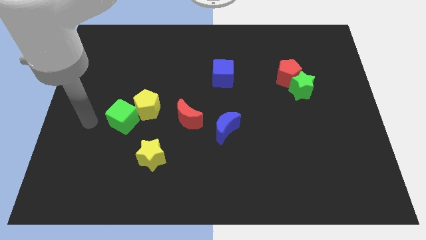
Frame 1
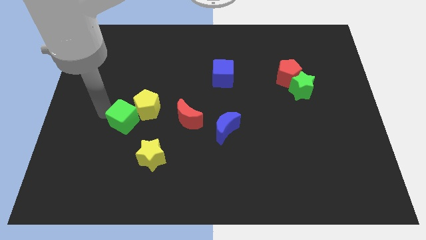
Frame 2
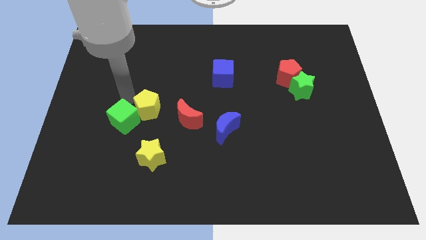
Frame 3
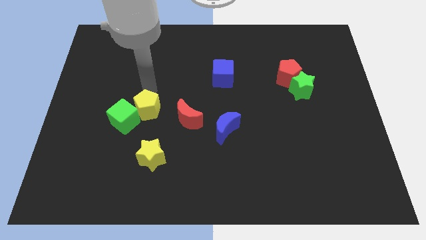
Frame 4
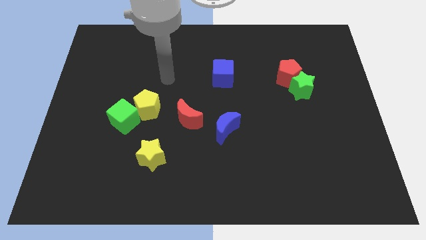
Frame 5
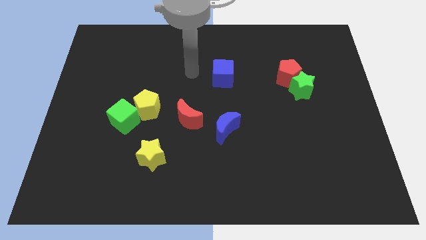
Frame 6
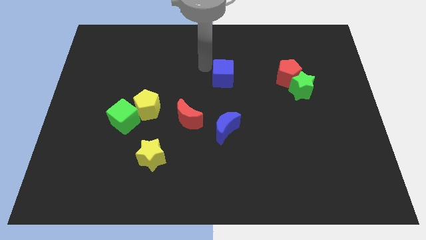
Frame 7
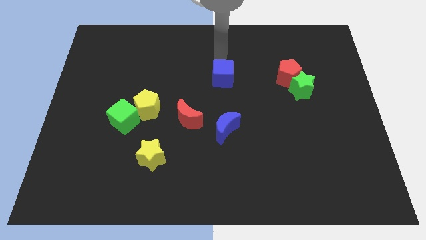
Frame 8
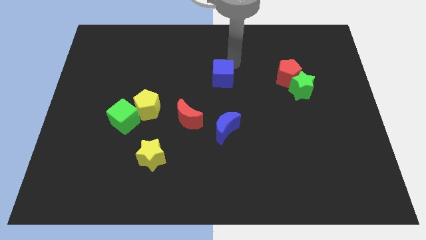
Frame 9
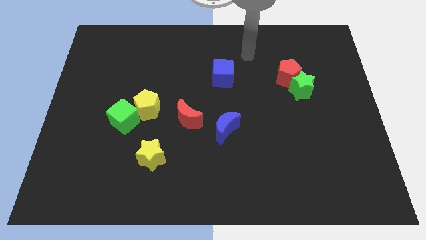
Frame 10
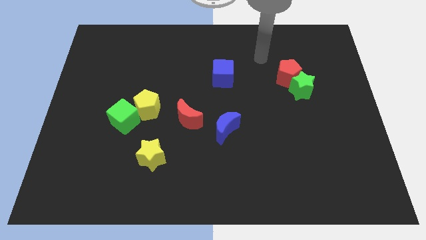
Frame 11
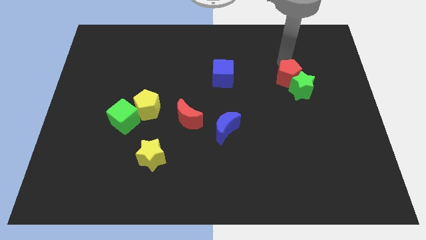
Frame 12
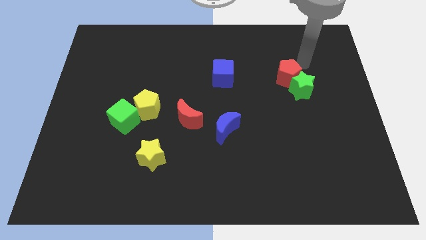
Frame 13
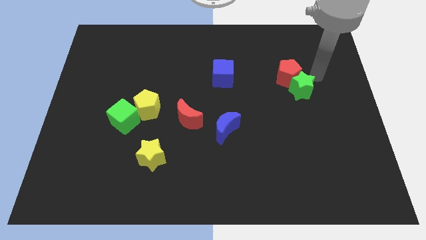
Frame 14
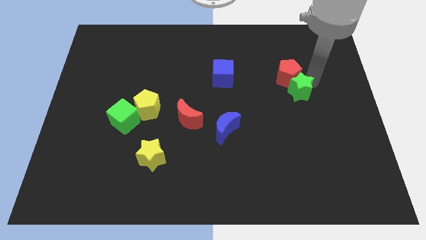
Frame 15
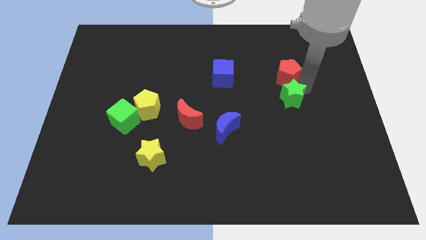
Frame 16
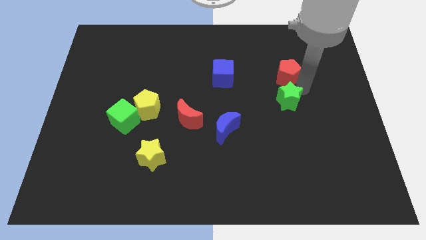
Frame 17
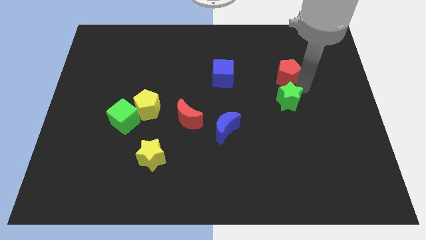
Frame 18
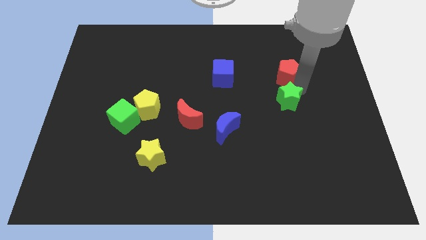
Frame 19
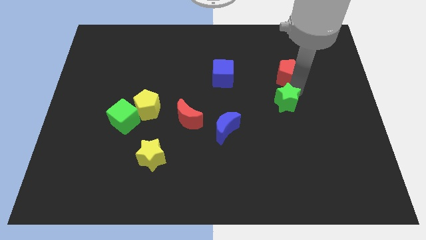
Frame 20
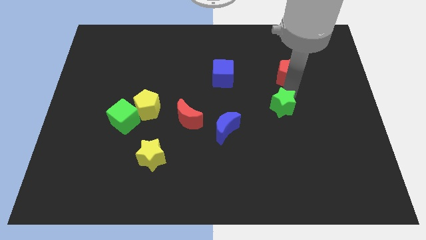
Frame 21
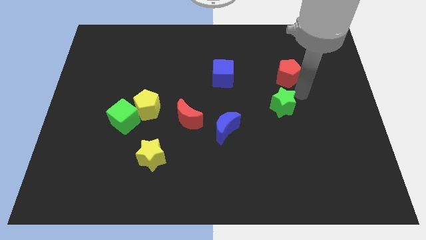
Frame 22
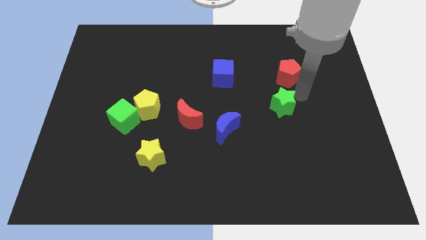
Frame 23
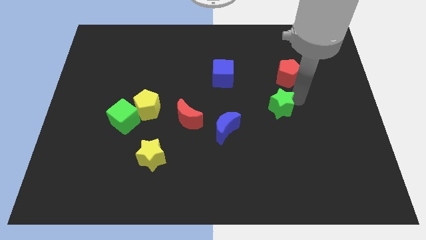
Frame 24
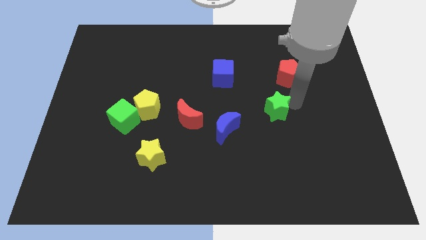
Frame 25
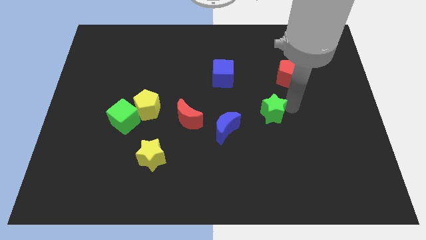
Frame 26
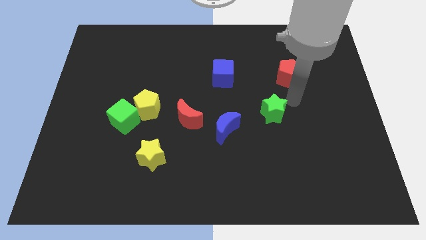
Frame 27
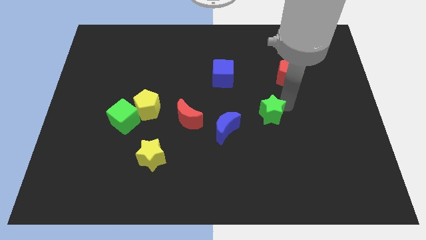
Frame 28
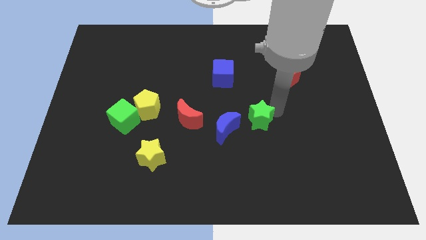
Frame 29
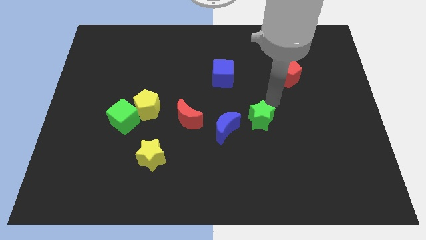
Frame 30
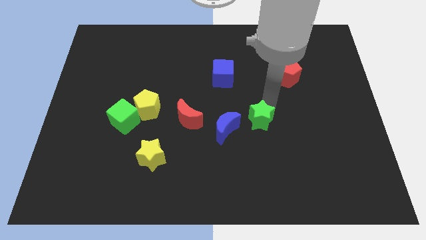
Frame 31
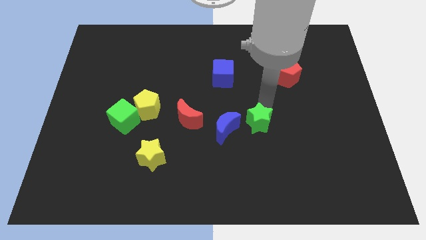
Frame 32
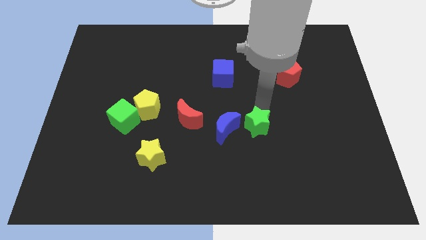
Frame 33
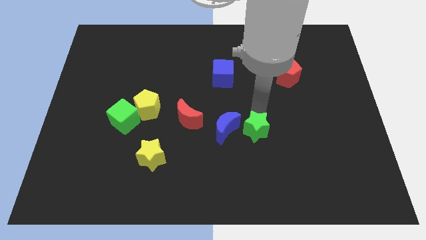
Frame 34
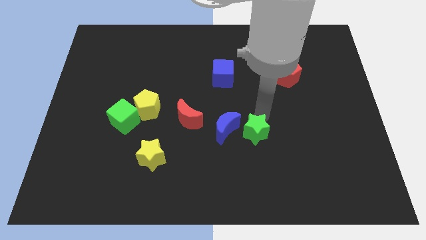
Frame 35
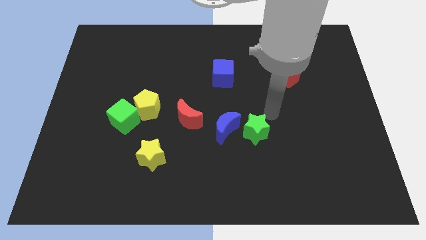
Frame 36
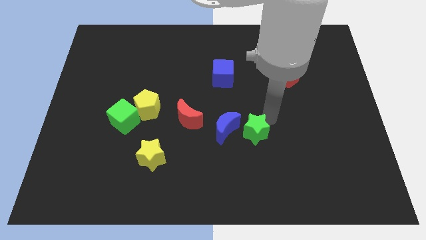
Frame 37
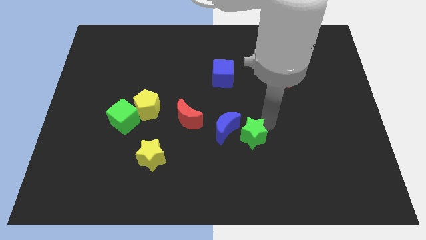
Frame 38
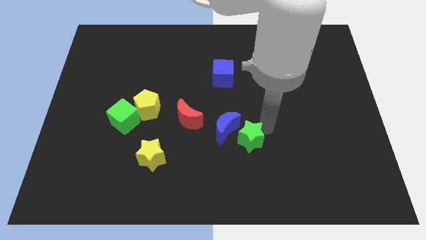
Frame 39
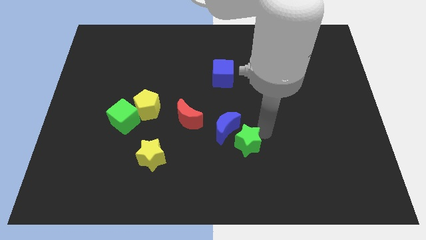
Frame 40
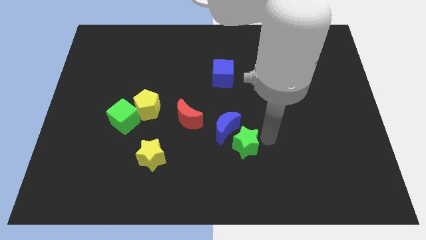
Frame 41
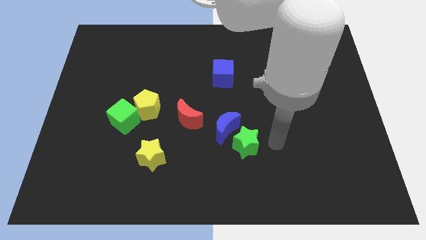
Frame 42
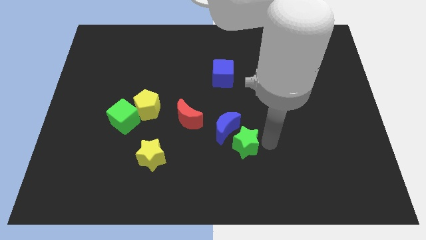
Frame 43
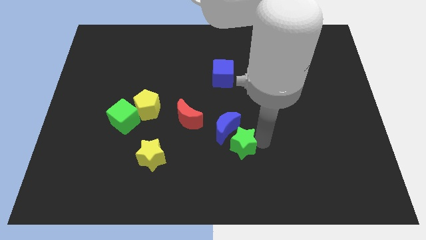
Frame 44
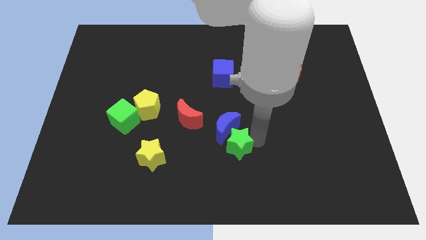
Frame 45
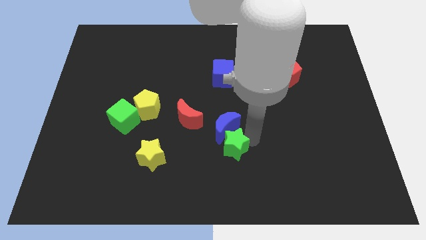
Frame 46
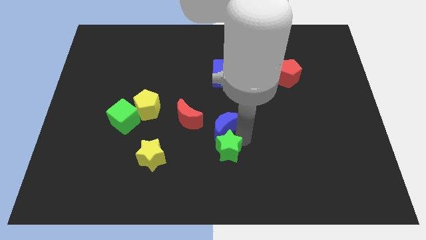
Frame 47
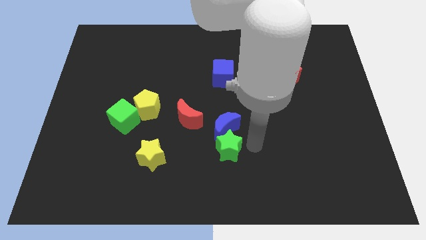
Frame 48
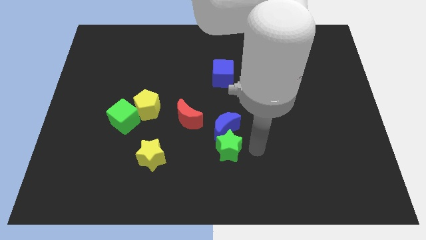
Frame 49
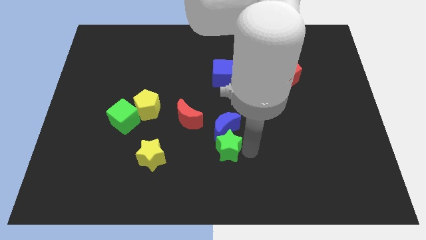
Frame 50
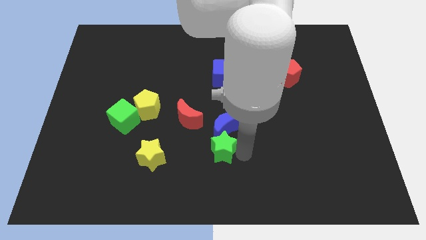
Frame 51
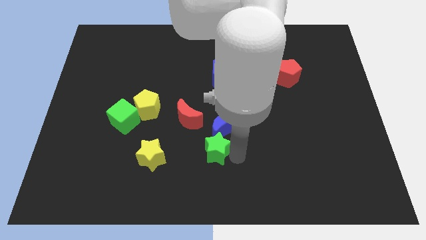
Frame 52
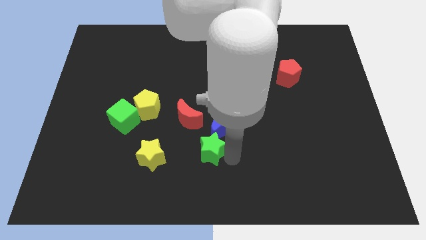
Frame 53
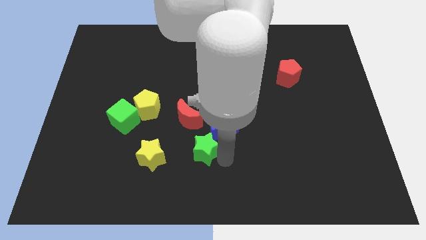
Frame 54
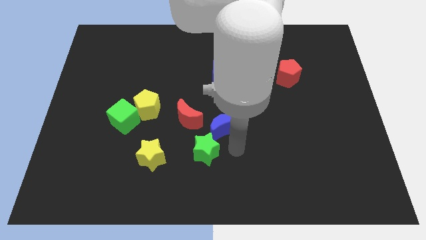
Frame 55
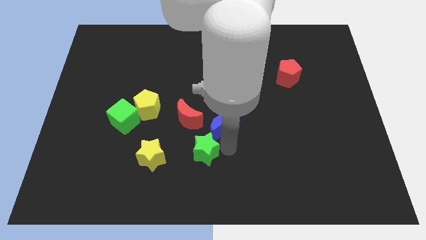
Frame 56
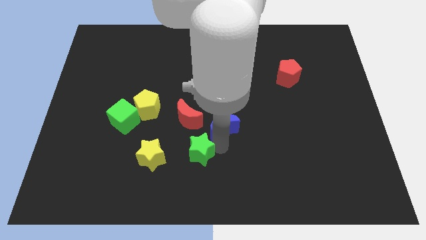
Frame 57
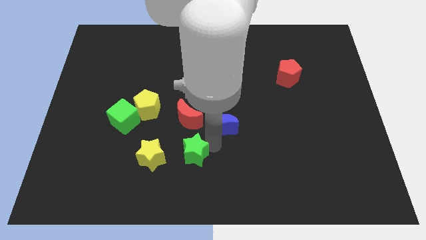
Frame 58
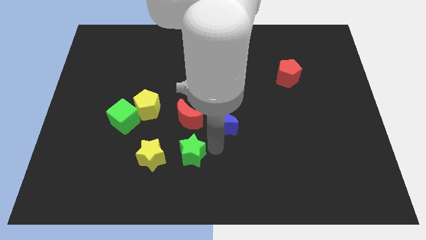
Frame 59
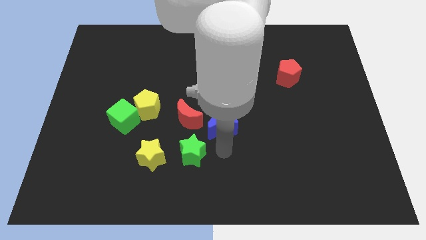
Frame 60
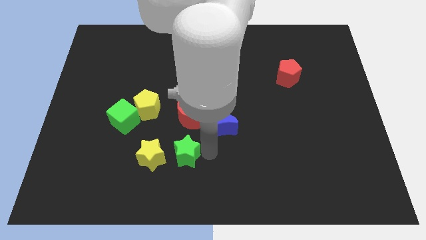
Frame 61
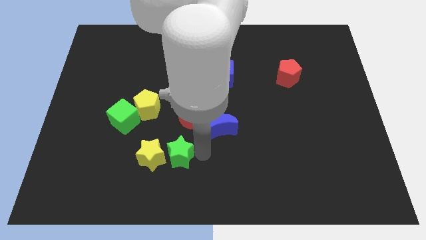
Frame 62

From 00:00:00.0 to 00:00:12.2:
put the green star towards the yellow star

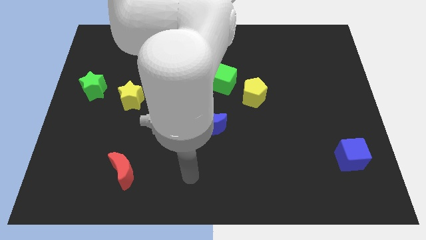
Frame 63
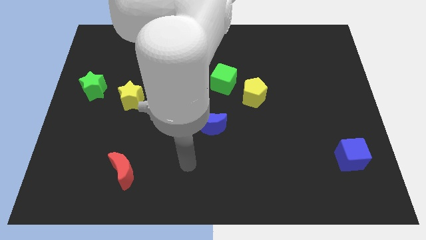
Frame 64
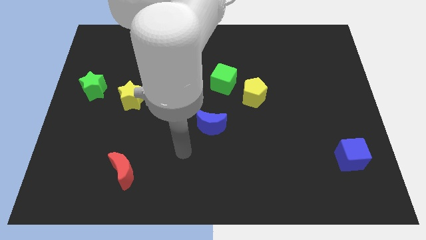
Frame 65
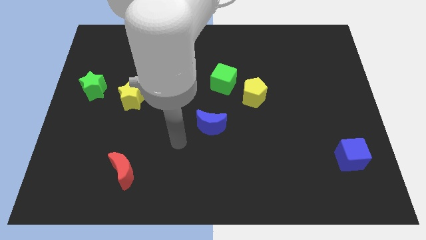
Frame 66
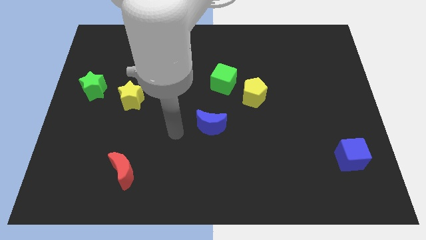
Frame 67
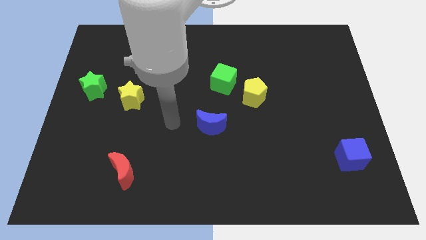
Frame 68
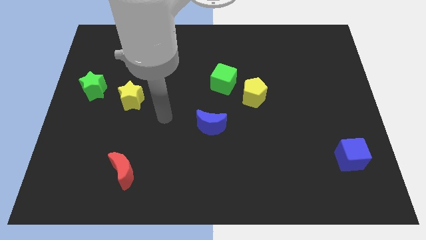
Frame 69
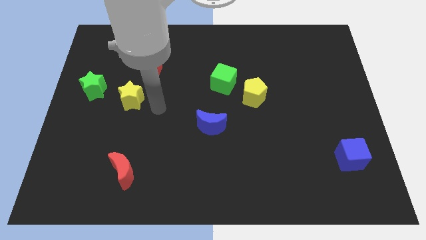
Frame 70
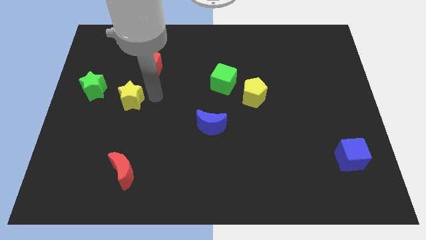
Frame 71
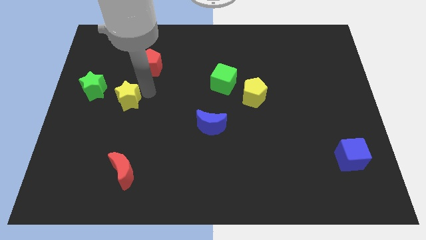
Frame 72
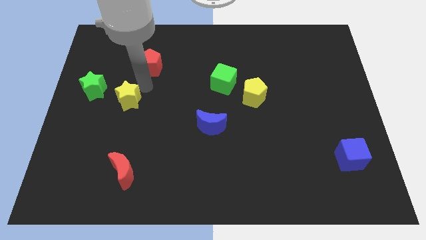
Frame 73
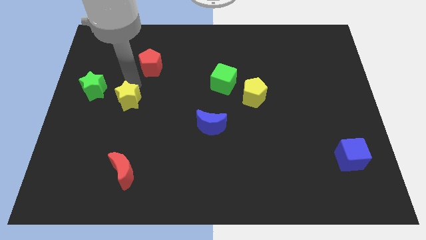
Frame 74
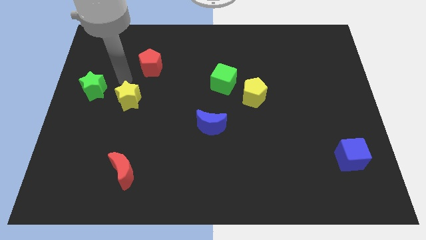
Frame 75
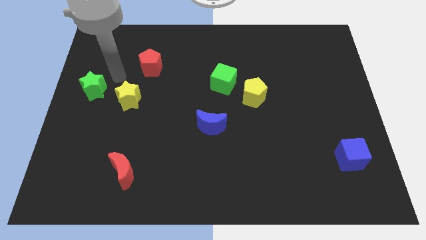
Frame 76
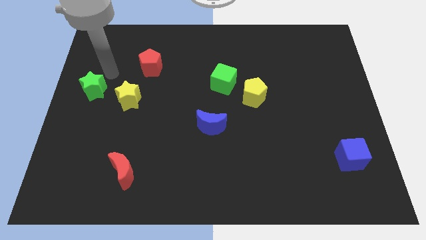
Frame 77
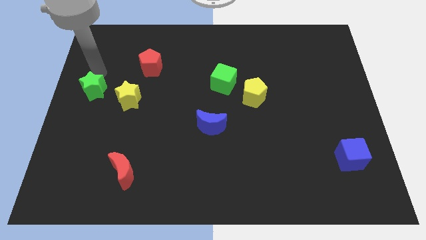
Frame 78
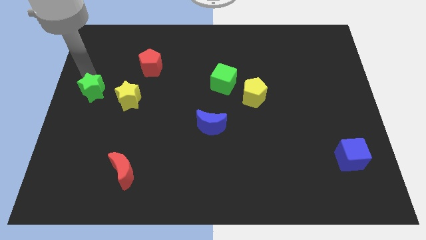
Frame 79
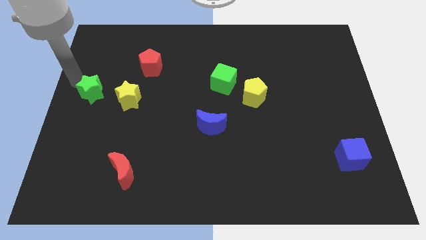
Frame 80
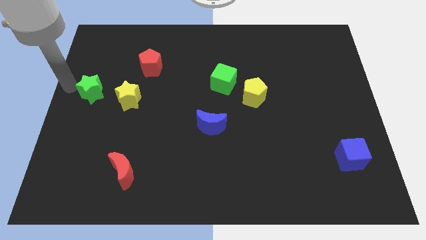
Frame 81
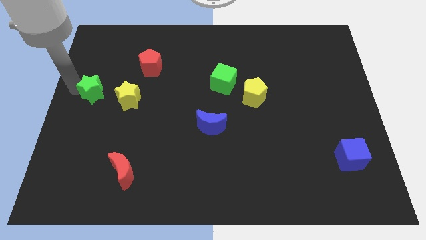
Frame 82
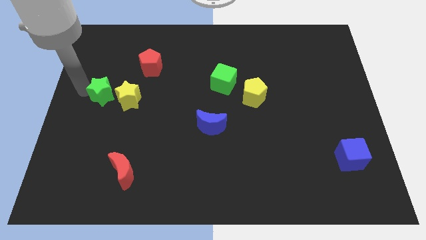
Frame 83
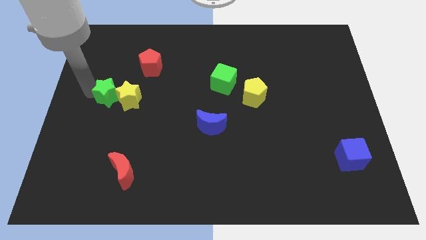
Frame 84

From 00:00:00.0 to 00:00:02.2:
move the green star close to the yellow star
